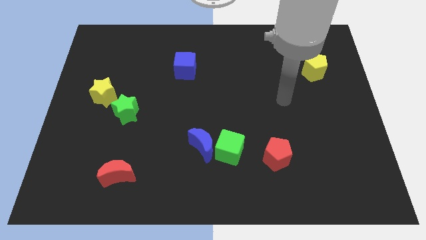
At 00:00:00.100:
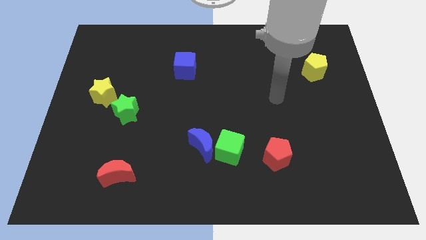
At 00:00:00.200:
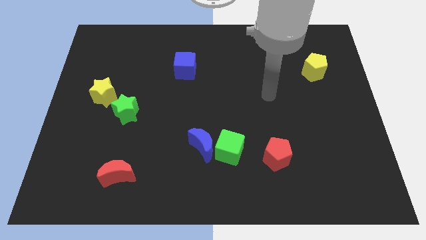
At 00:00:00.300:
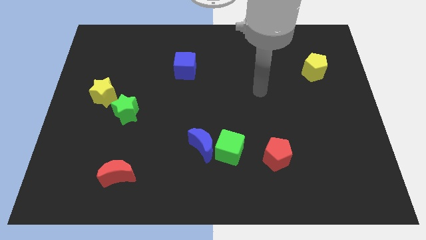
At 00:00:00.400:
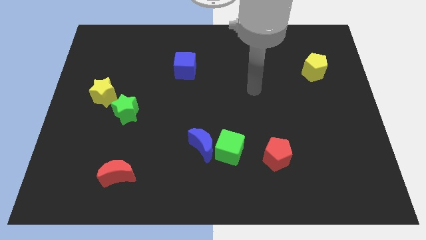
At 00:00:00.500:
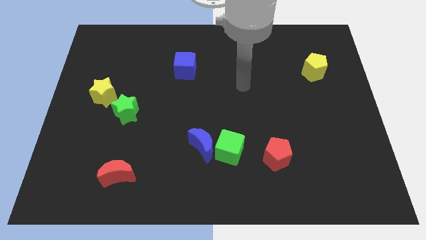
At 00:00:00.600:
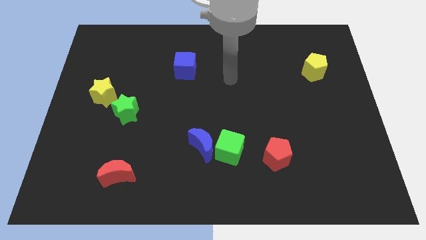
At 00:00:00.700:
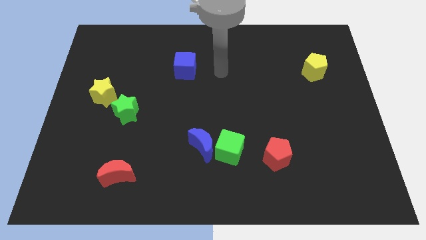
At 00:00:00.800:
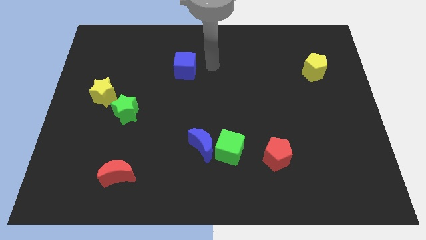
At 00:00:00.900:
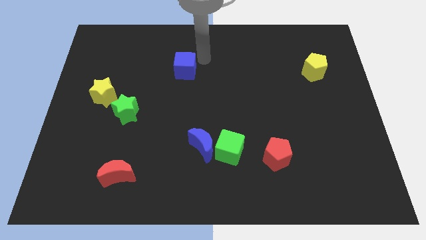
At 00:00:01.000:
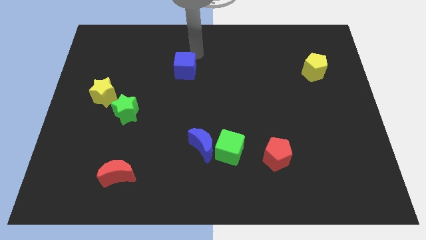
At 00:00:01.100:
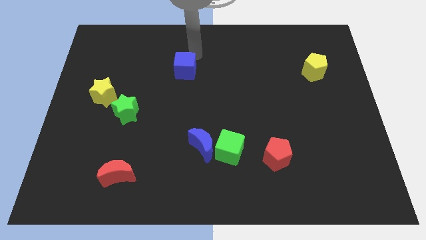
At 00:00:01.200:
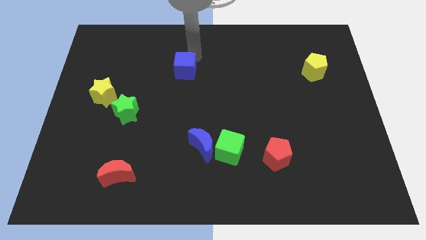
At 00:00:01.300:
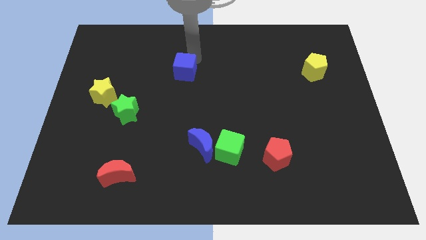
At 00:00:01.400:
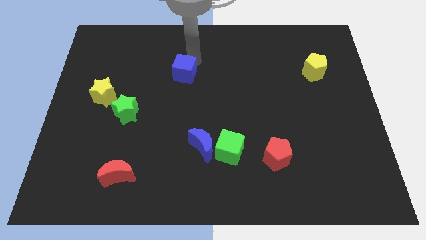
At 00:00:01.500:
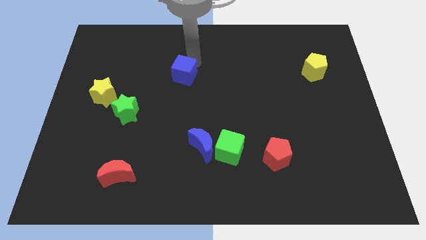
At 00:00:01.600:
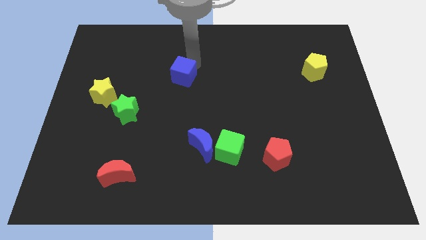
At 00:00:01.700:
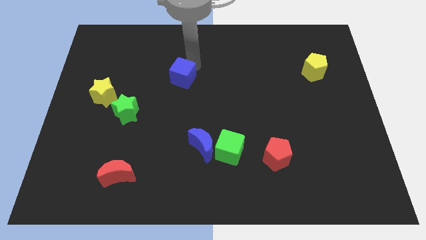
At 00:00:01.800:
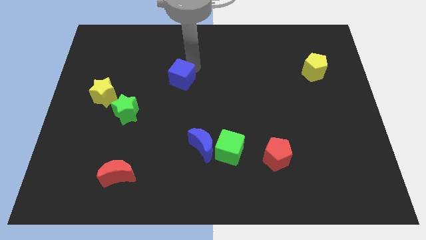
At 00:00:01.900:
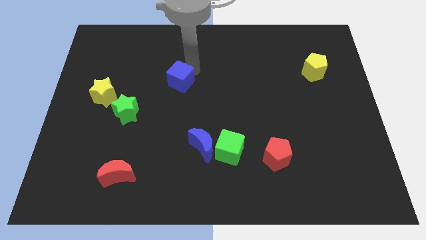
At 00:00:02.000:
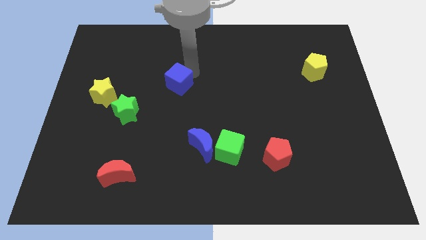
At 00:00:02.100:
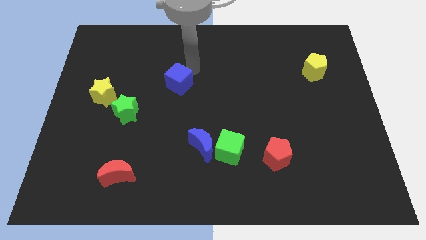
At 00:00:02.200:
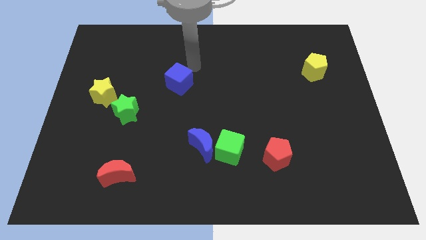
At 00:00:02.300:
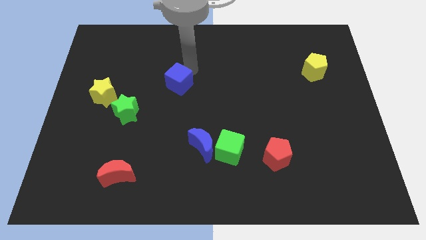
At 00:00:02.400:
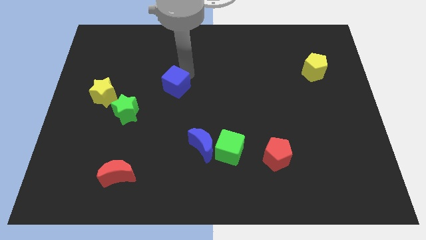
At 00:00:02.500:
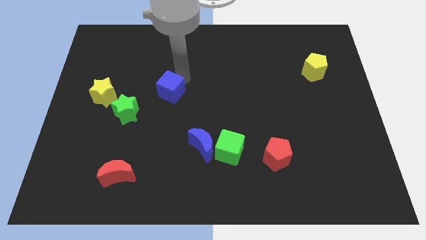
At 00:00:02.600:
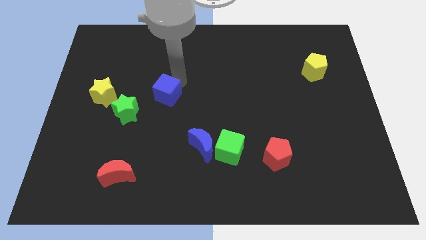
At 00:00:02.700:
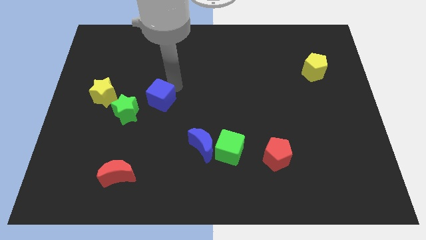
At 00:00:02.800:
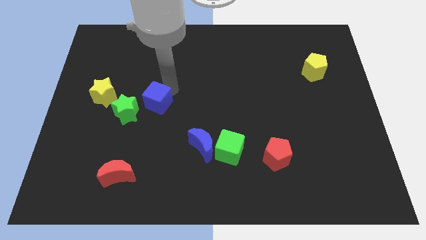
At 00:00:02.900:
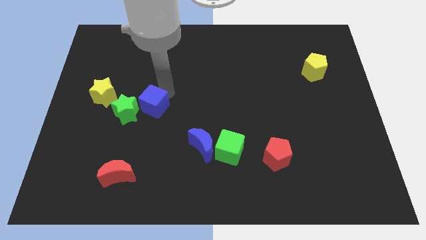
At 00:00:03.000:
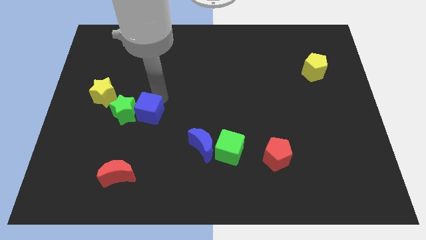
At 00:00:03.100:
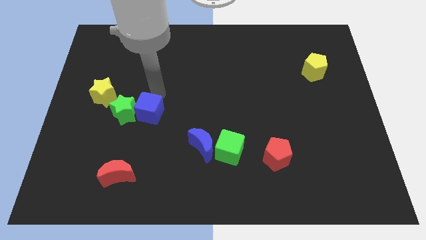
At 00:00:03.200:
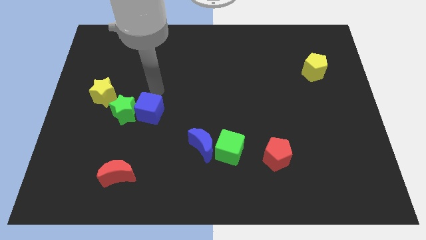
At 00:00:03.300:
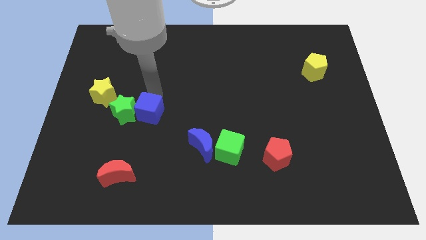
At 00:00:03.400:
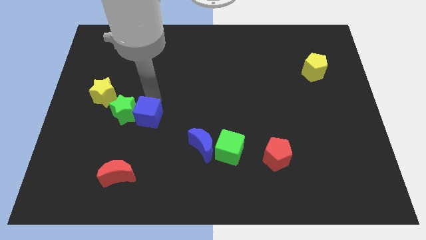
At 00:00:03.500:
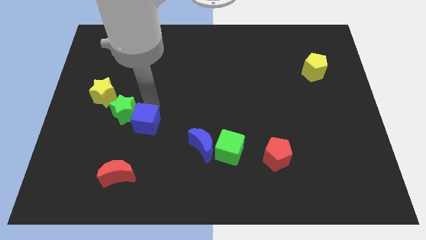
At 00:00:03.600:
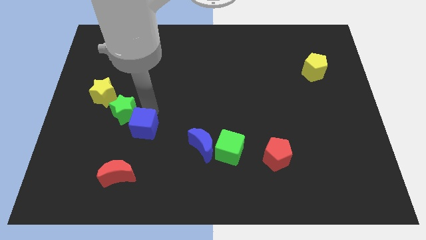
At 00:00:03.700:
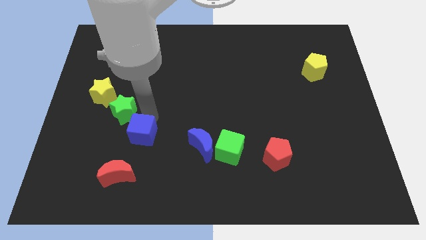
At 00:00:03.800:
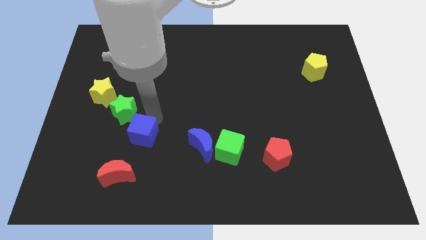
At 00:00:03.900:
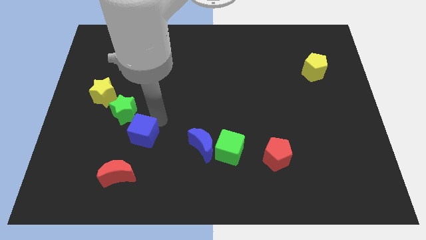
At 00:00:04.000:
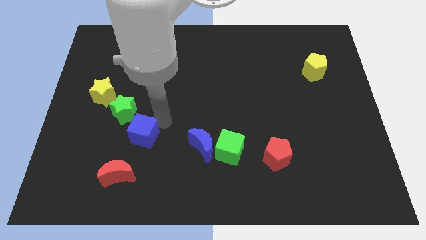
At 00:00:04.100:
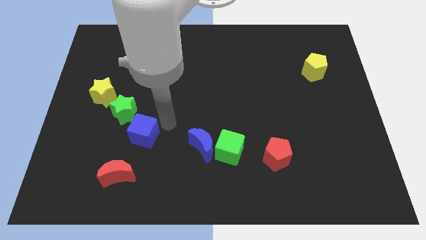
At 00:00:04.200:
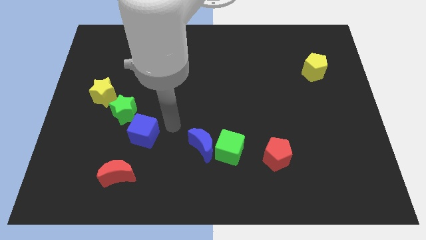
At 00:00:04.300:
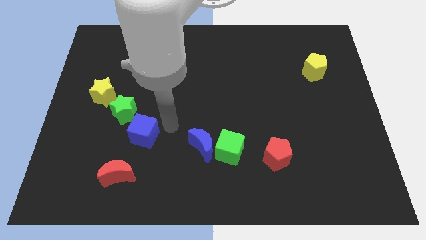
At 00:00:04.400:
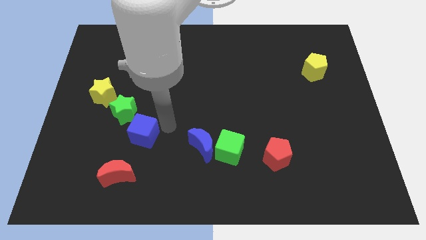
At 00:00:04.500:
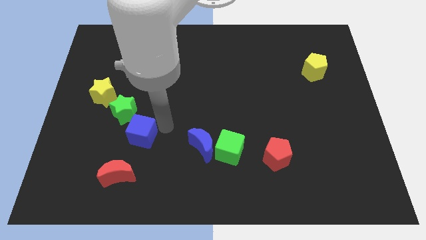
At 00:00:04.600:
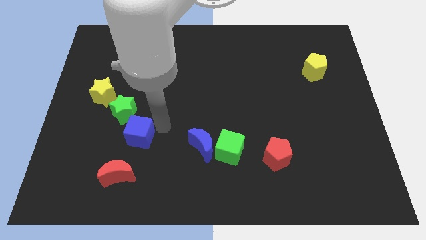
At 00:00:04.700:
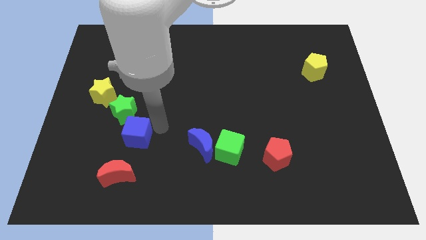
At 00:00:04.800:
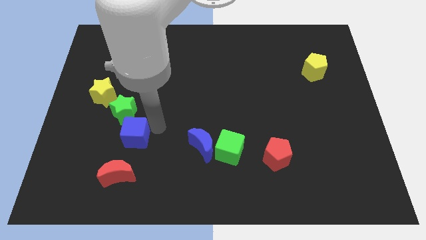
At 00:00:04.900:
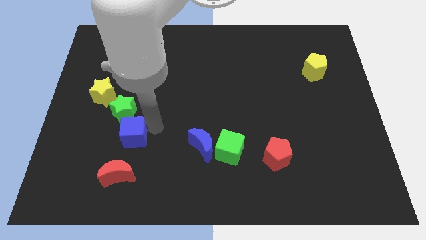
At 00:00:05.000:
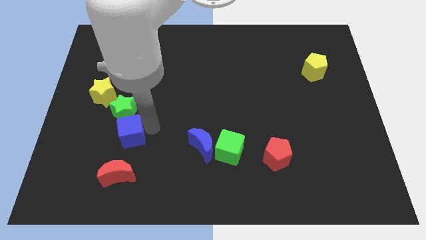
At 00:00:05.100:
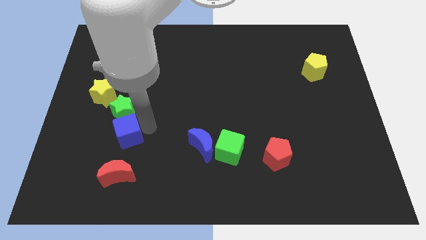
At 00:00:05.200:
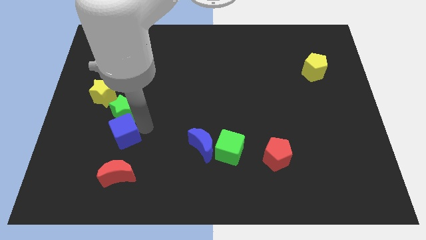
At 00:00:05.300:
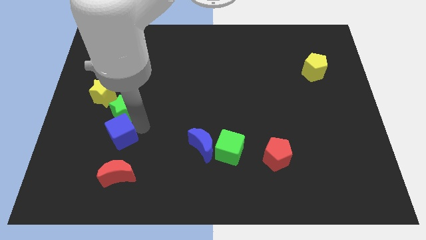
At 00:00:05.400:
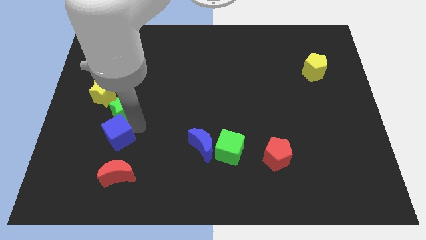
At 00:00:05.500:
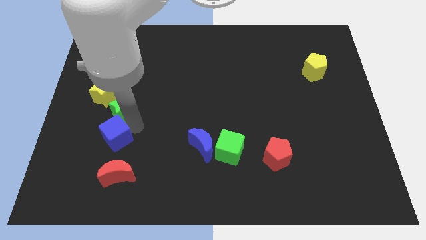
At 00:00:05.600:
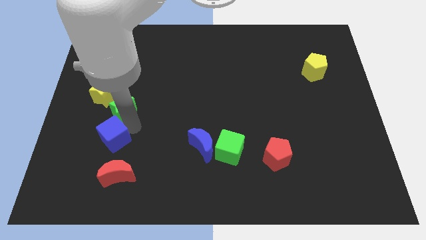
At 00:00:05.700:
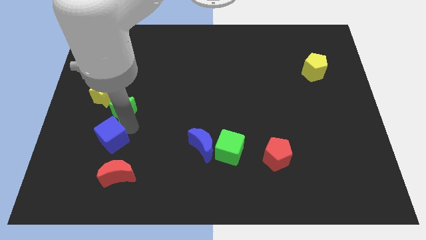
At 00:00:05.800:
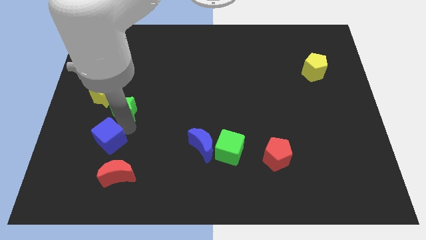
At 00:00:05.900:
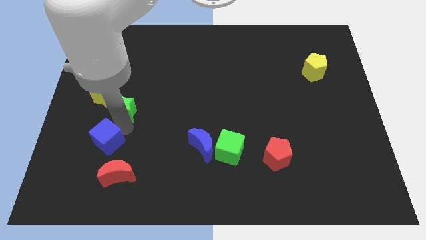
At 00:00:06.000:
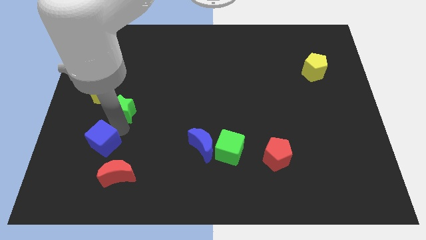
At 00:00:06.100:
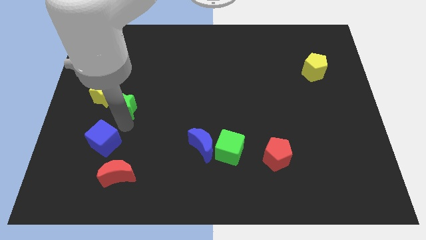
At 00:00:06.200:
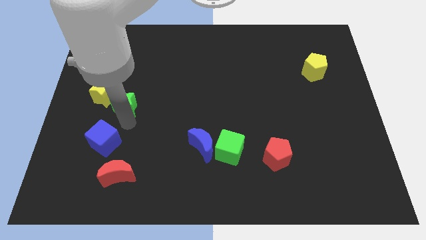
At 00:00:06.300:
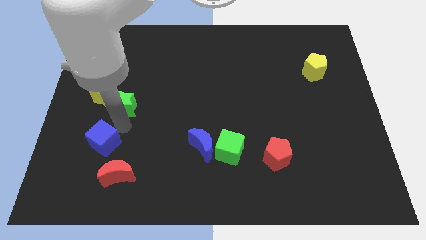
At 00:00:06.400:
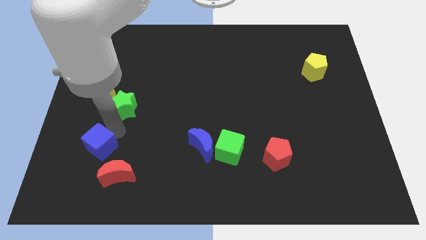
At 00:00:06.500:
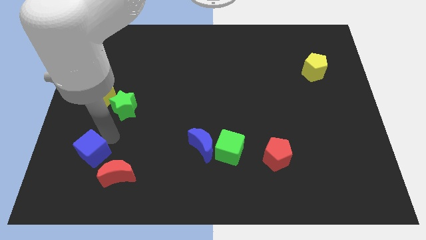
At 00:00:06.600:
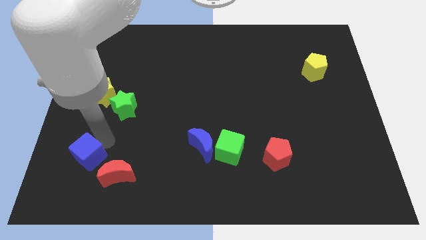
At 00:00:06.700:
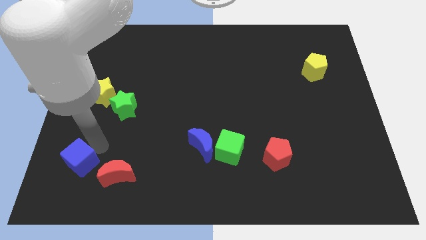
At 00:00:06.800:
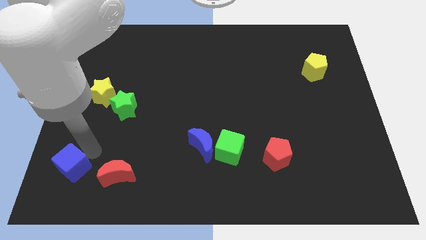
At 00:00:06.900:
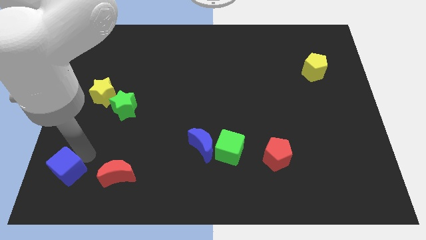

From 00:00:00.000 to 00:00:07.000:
put the blue cube to the bottom left corner
